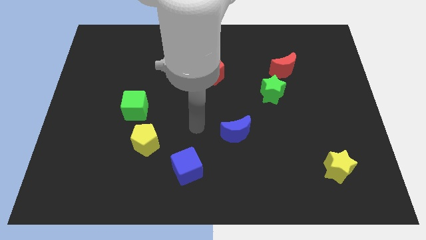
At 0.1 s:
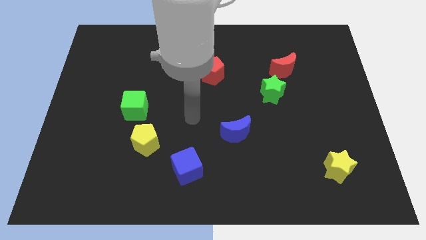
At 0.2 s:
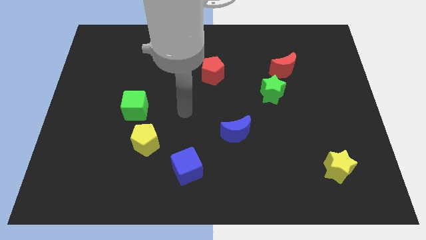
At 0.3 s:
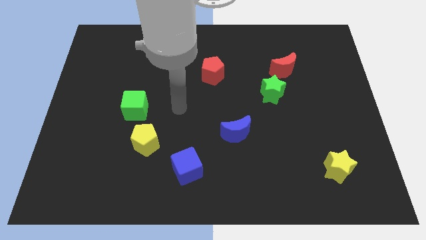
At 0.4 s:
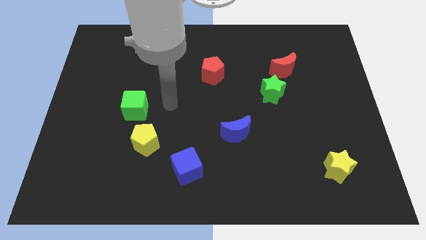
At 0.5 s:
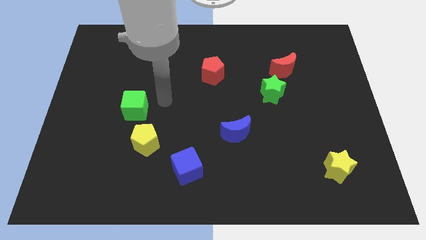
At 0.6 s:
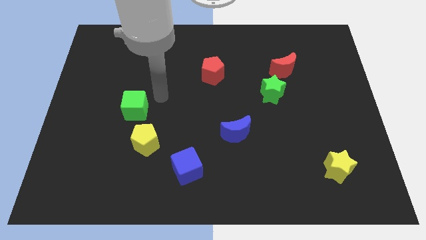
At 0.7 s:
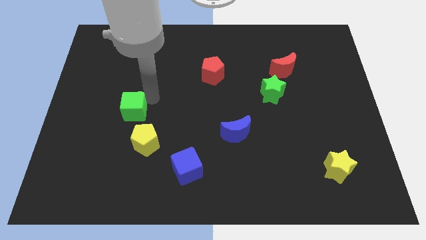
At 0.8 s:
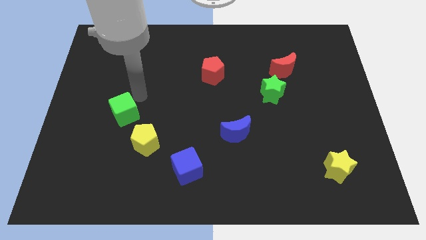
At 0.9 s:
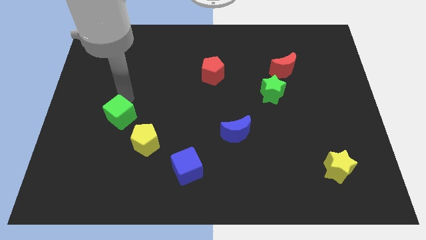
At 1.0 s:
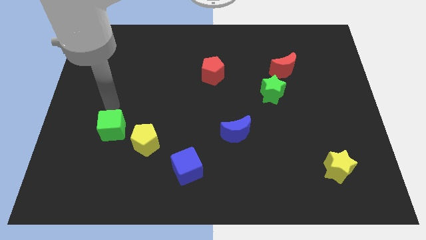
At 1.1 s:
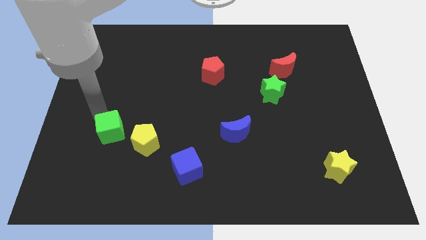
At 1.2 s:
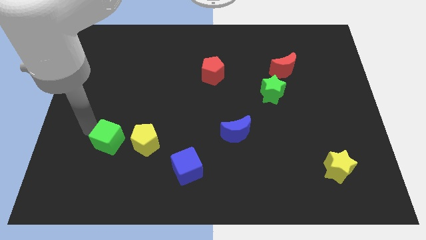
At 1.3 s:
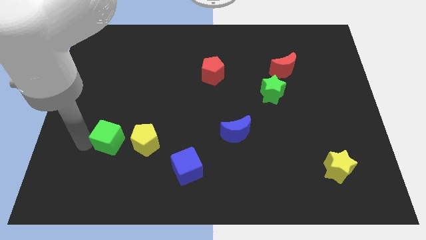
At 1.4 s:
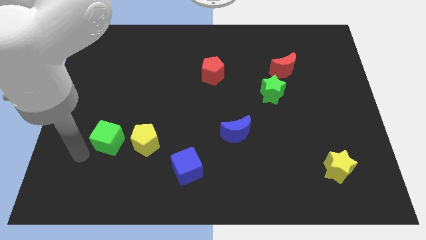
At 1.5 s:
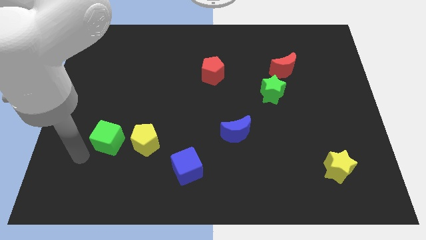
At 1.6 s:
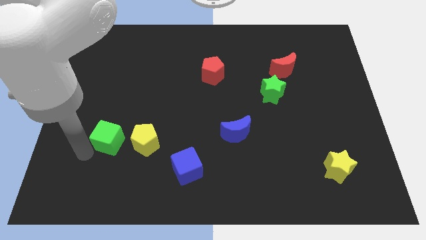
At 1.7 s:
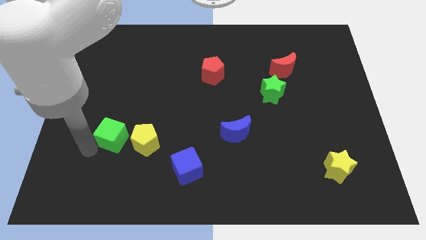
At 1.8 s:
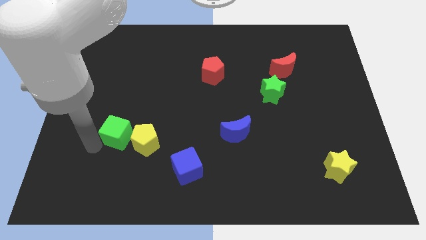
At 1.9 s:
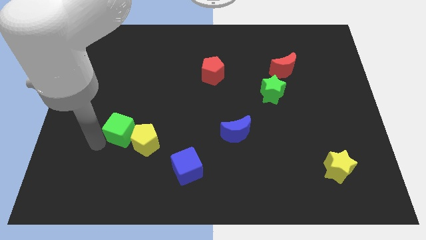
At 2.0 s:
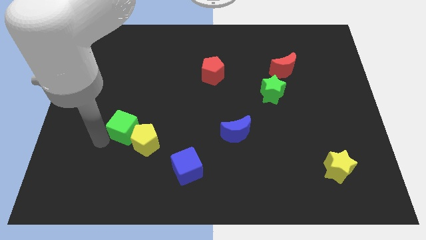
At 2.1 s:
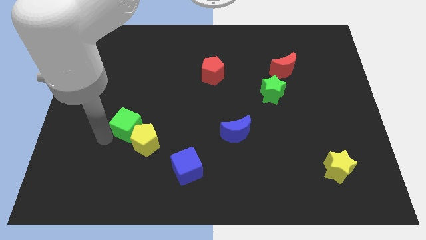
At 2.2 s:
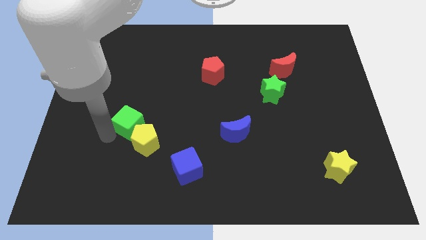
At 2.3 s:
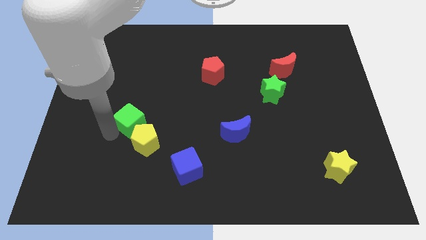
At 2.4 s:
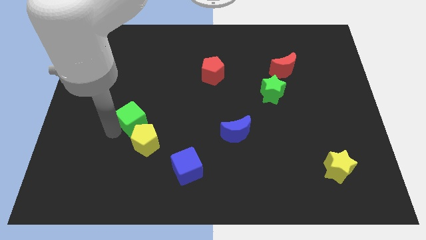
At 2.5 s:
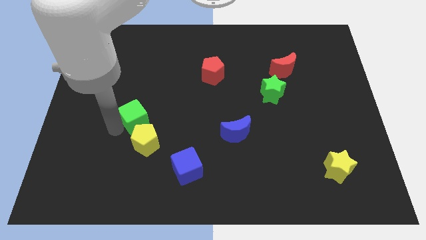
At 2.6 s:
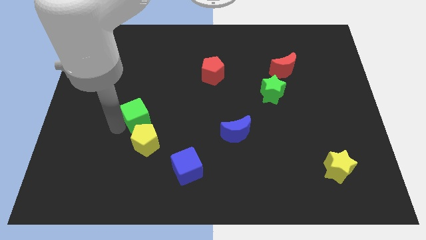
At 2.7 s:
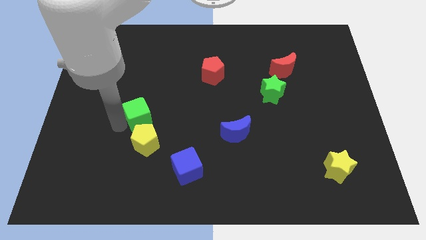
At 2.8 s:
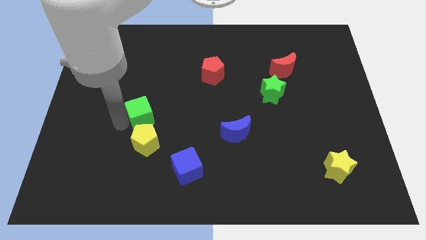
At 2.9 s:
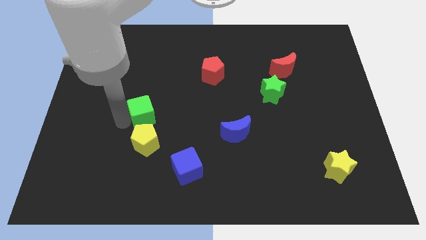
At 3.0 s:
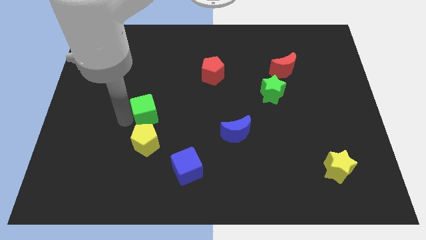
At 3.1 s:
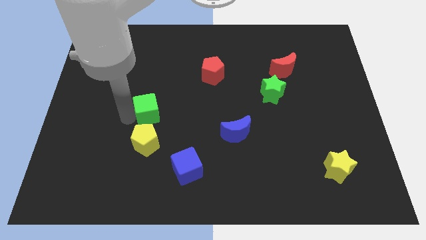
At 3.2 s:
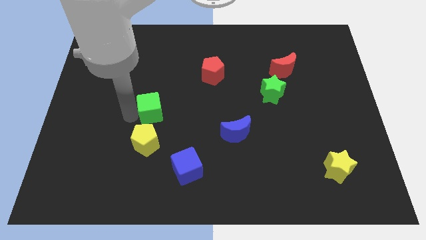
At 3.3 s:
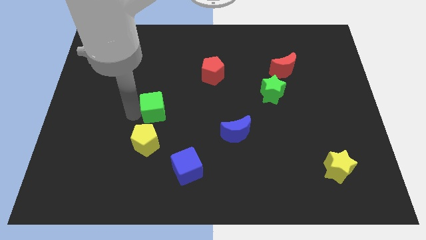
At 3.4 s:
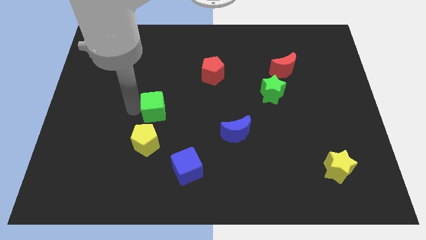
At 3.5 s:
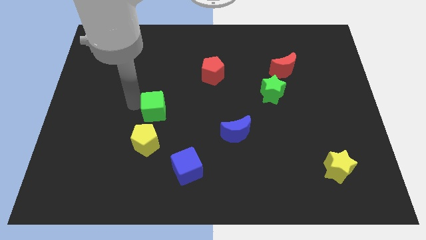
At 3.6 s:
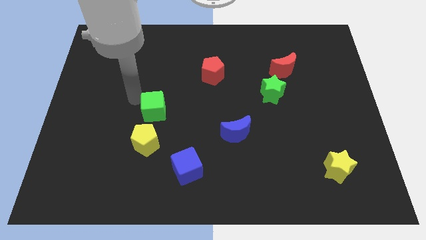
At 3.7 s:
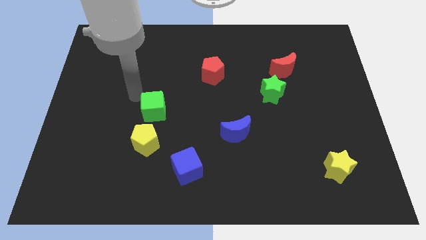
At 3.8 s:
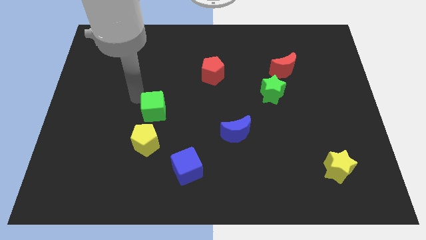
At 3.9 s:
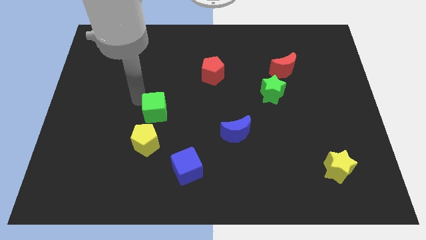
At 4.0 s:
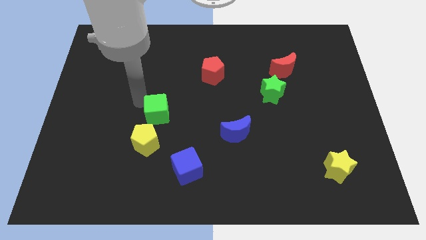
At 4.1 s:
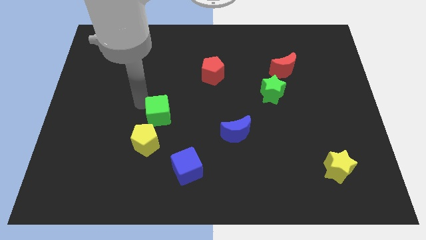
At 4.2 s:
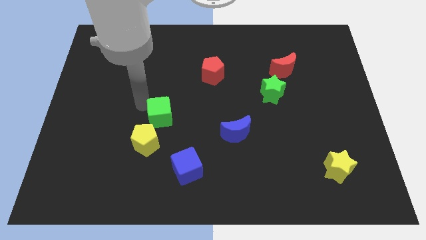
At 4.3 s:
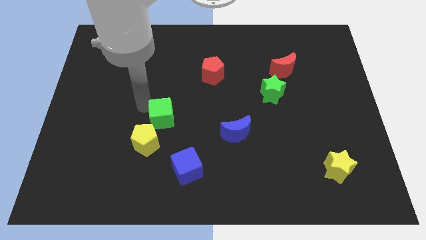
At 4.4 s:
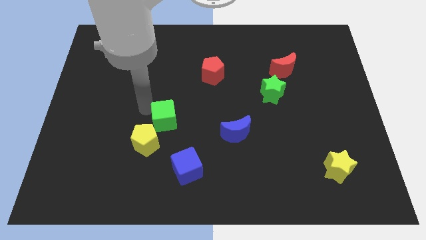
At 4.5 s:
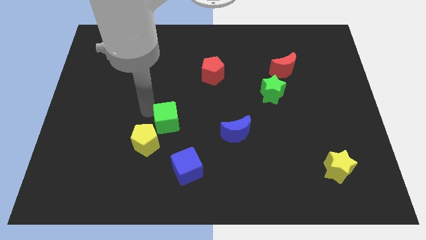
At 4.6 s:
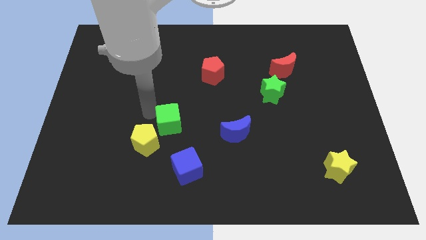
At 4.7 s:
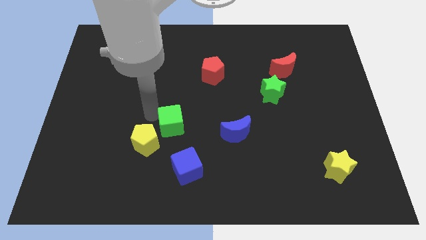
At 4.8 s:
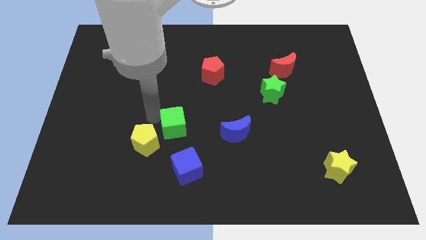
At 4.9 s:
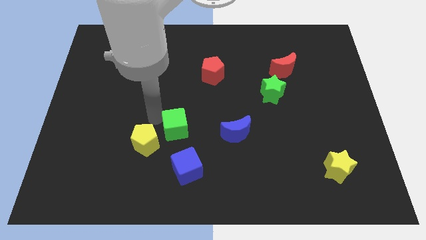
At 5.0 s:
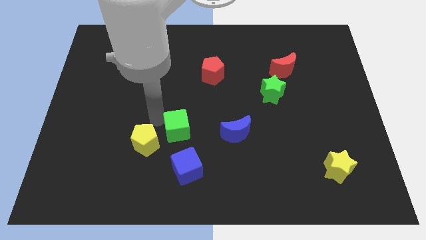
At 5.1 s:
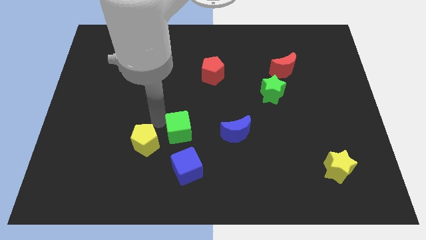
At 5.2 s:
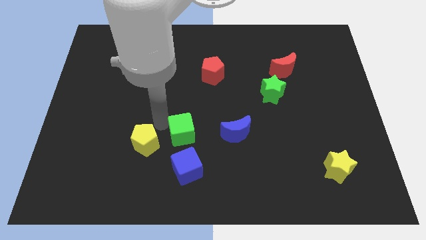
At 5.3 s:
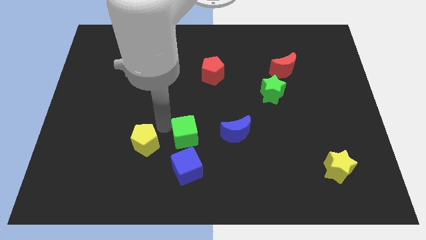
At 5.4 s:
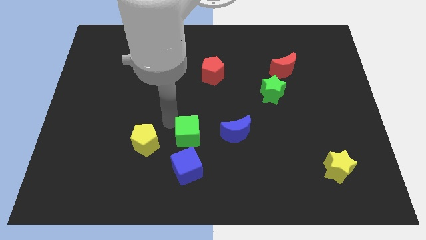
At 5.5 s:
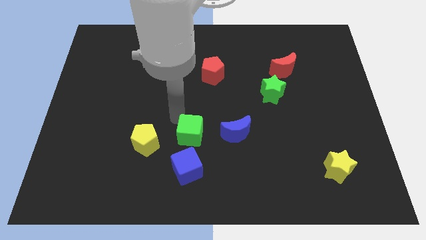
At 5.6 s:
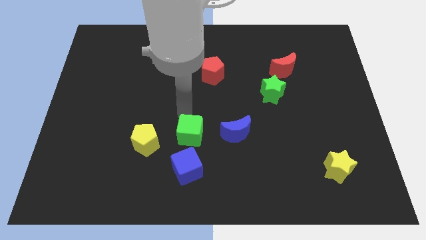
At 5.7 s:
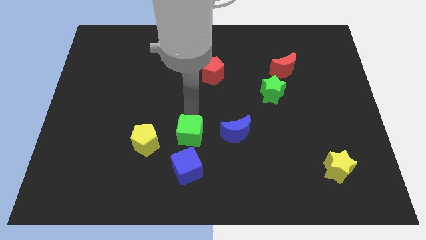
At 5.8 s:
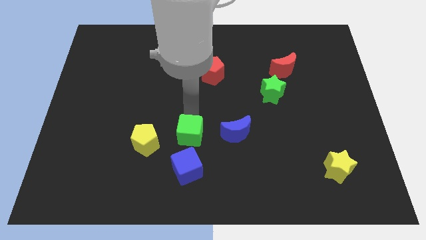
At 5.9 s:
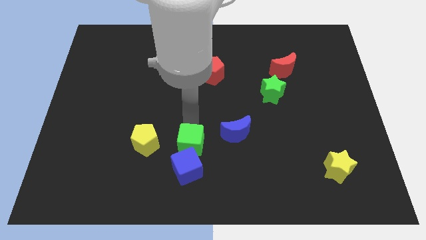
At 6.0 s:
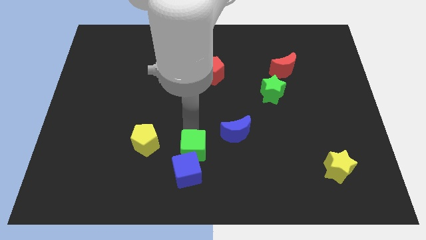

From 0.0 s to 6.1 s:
push the green cube to the blue cube
